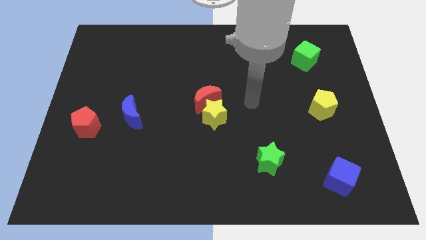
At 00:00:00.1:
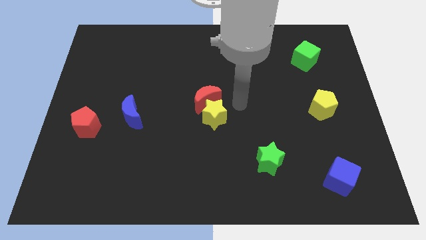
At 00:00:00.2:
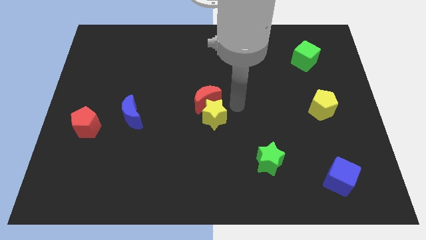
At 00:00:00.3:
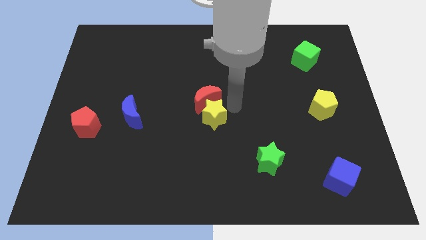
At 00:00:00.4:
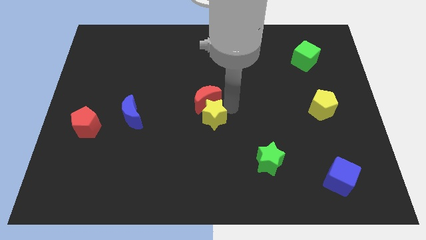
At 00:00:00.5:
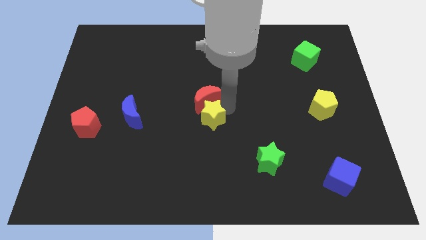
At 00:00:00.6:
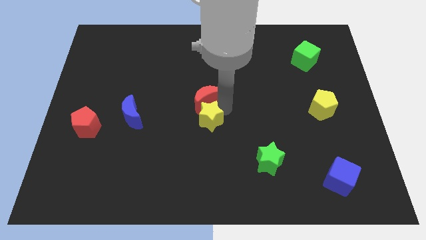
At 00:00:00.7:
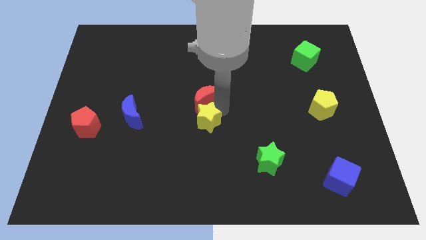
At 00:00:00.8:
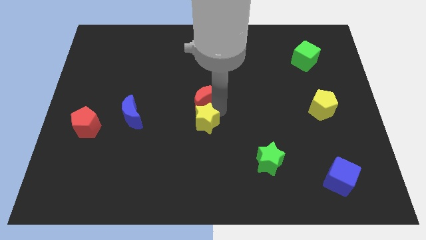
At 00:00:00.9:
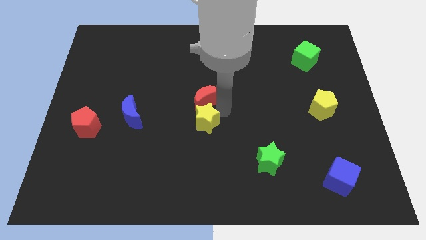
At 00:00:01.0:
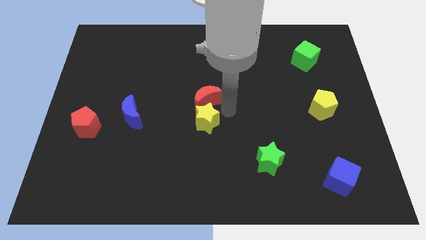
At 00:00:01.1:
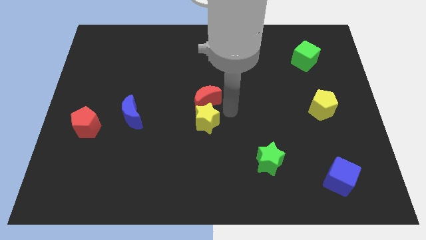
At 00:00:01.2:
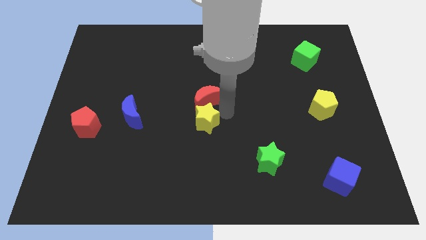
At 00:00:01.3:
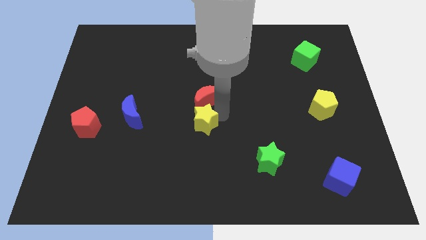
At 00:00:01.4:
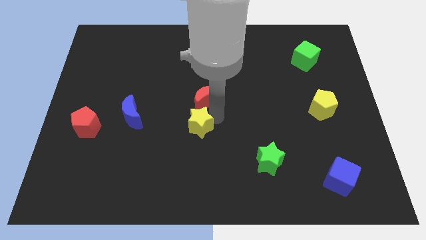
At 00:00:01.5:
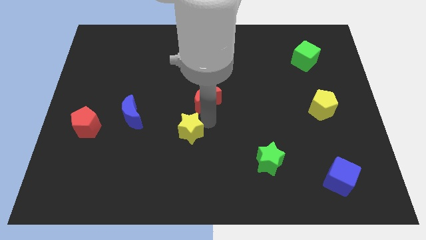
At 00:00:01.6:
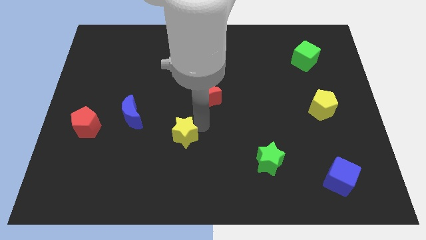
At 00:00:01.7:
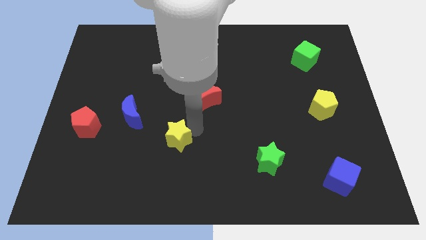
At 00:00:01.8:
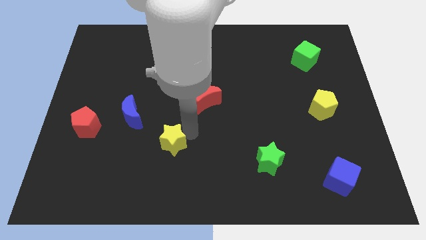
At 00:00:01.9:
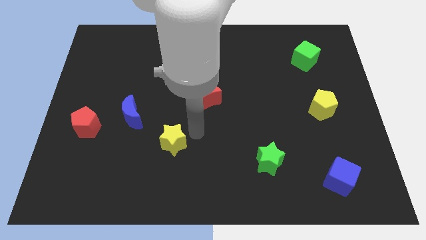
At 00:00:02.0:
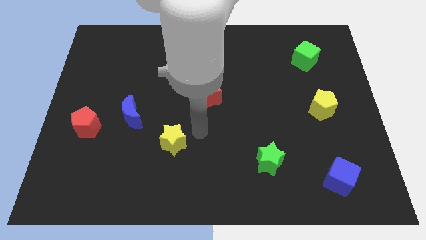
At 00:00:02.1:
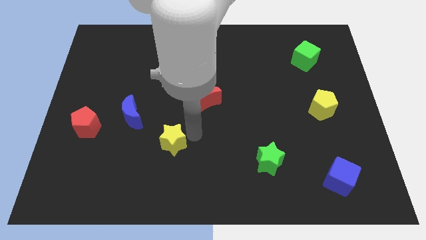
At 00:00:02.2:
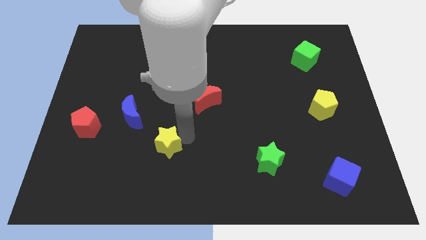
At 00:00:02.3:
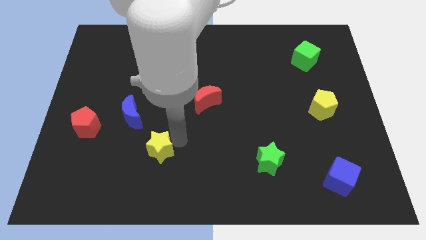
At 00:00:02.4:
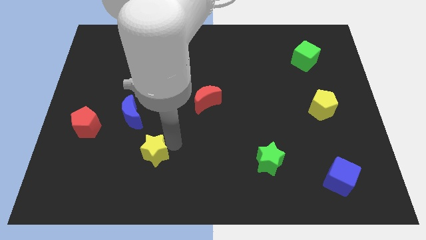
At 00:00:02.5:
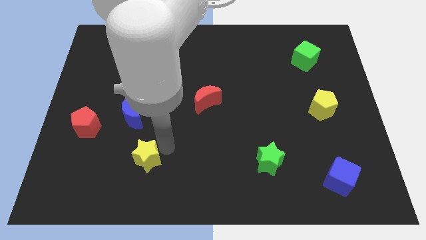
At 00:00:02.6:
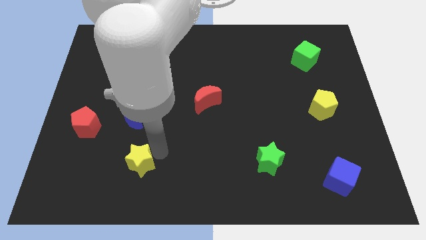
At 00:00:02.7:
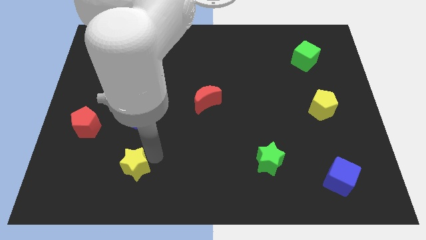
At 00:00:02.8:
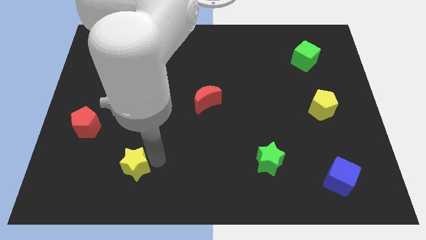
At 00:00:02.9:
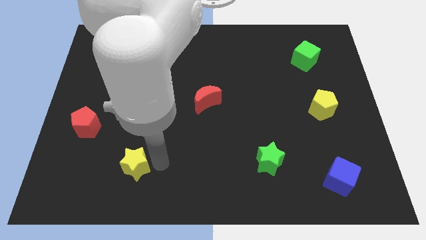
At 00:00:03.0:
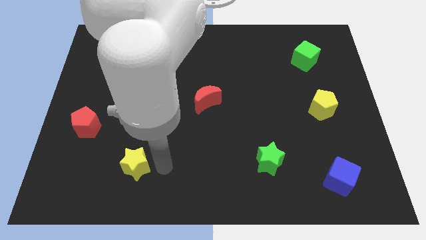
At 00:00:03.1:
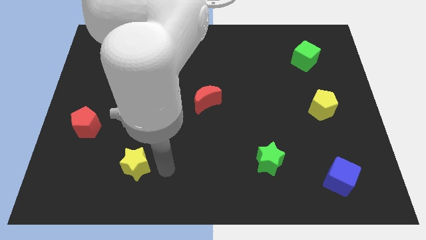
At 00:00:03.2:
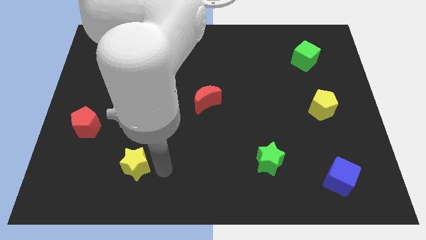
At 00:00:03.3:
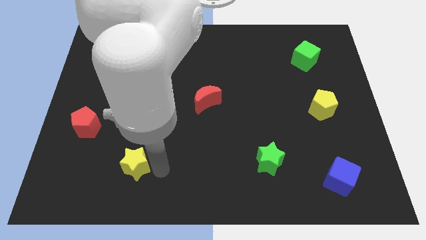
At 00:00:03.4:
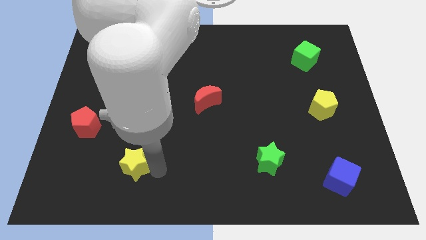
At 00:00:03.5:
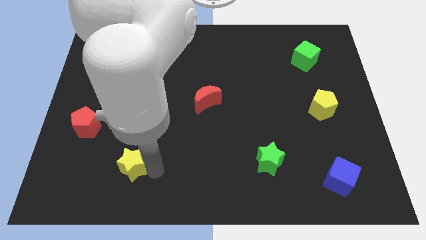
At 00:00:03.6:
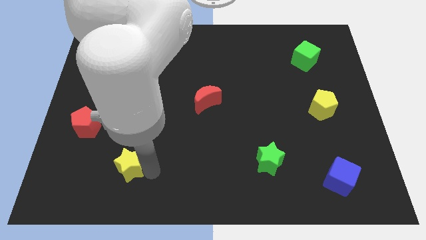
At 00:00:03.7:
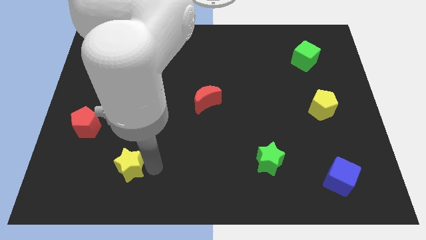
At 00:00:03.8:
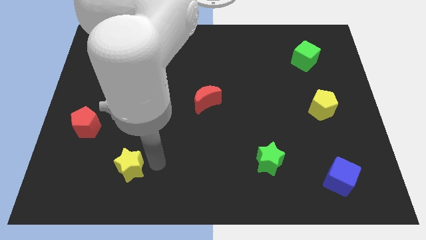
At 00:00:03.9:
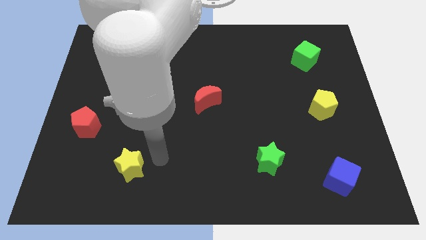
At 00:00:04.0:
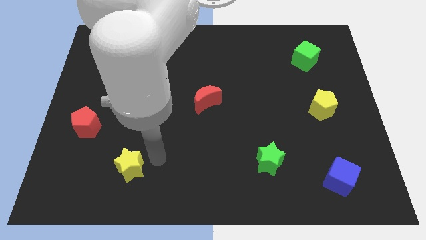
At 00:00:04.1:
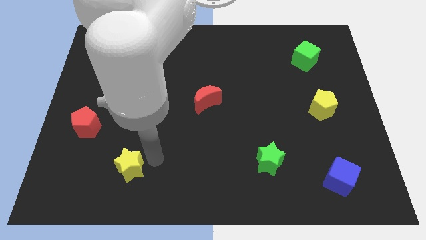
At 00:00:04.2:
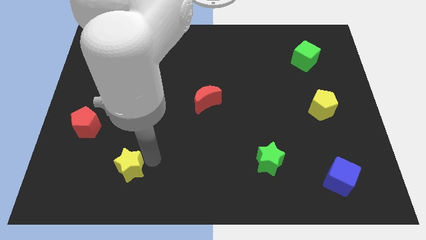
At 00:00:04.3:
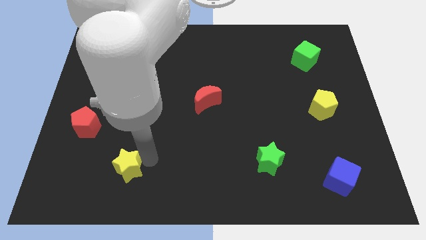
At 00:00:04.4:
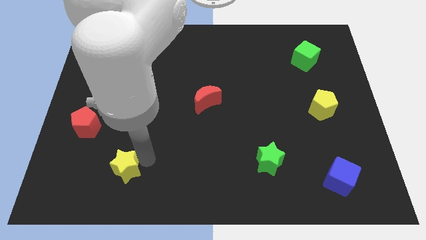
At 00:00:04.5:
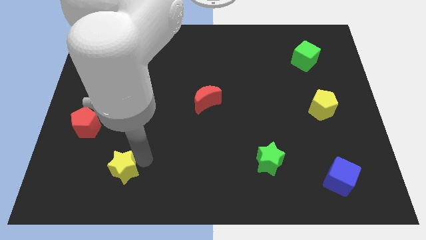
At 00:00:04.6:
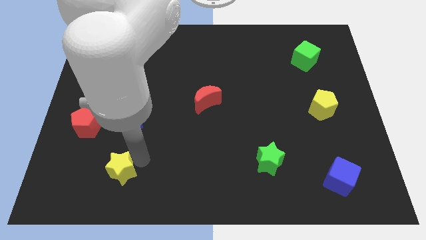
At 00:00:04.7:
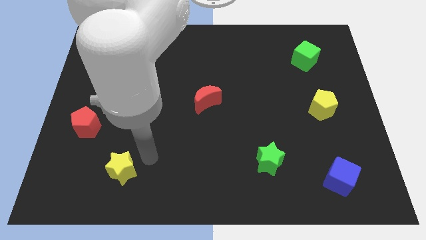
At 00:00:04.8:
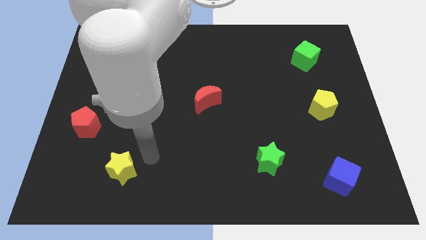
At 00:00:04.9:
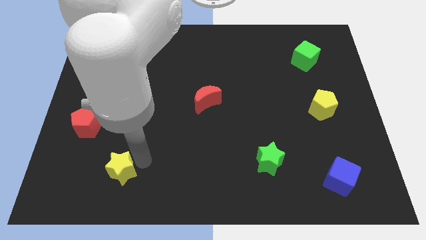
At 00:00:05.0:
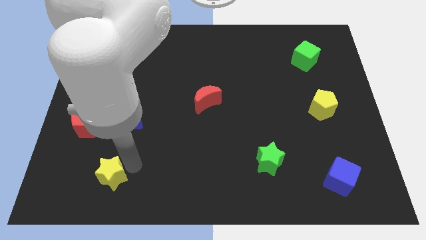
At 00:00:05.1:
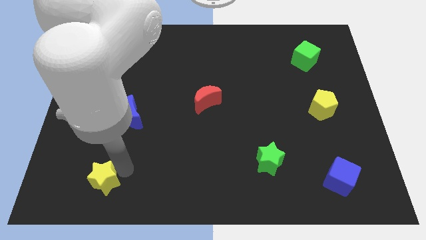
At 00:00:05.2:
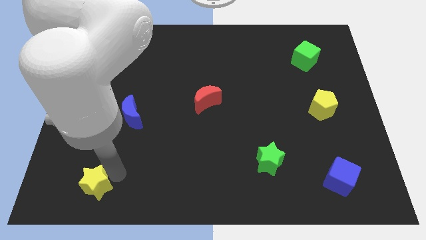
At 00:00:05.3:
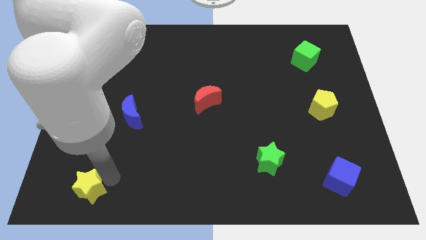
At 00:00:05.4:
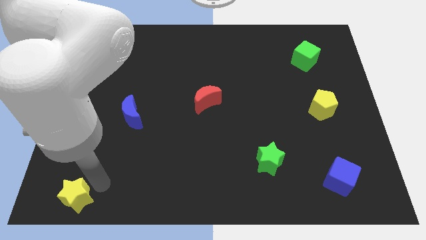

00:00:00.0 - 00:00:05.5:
slide the yellow star to the lower left corner
